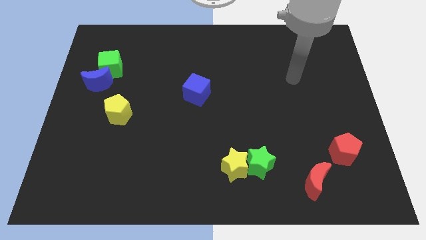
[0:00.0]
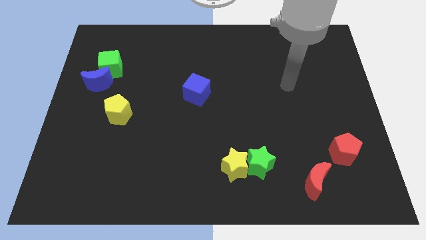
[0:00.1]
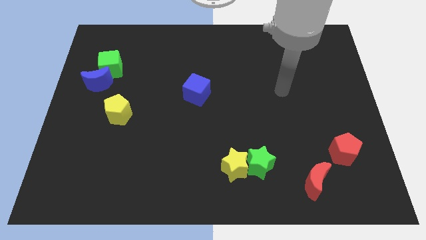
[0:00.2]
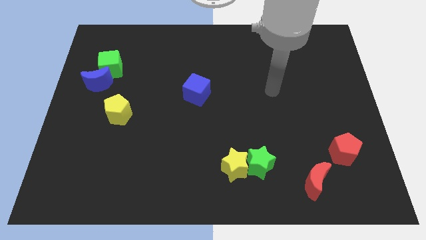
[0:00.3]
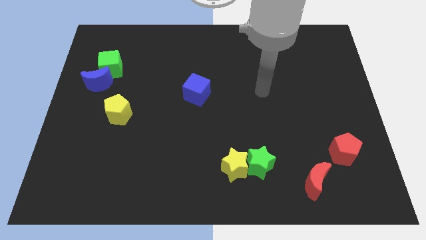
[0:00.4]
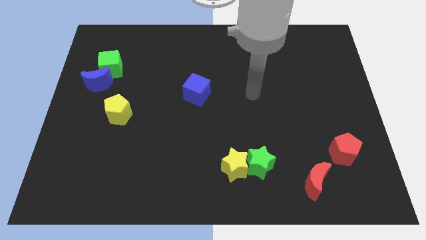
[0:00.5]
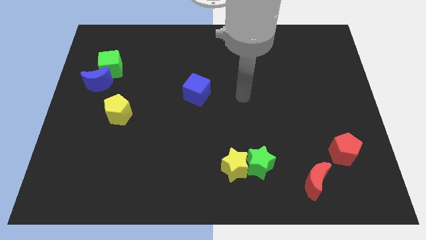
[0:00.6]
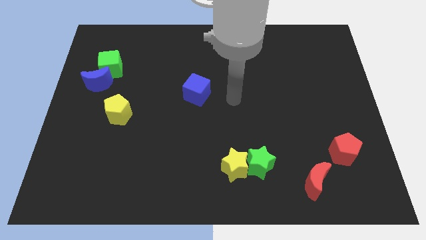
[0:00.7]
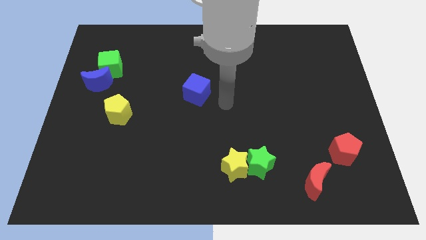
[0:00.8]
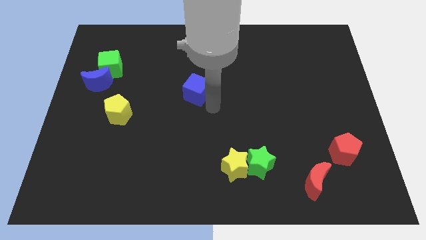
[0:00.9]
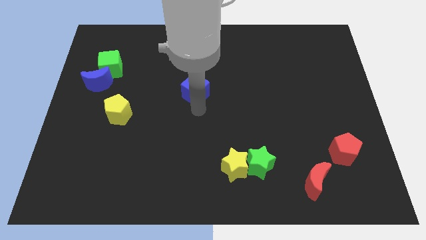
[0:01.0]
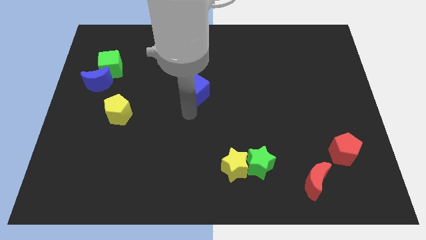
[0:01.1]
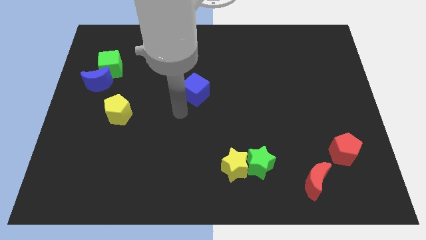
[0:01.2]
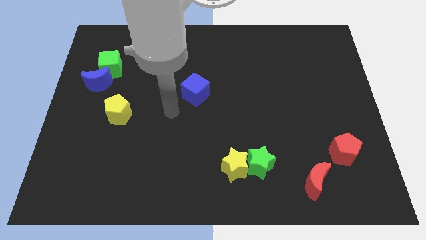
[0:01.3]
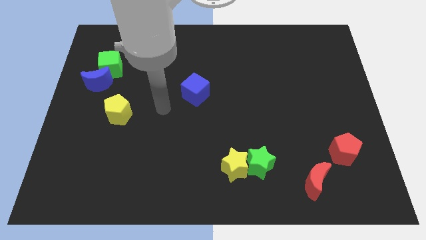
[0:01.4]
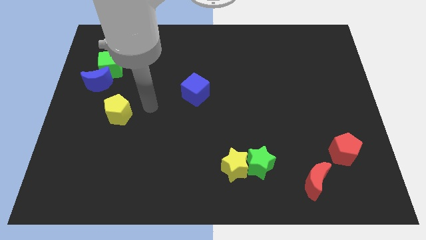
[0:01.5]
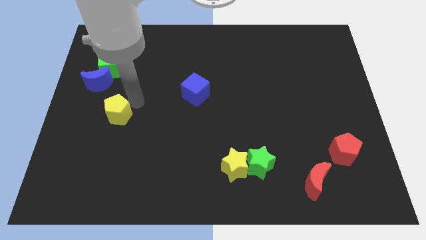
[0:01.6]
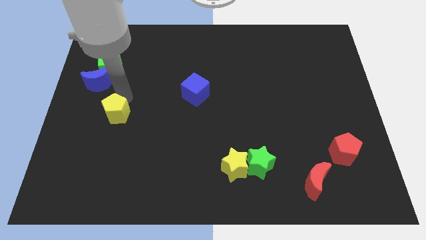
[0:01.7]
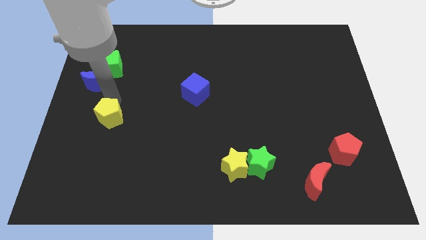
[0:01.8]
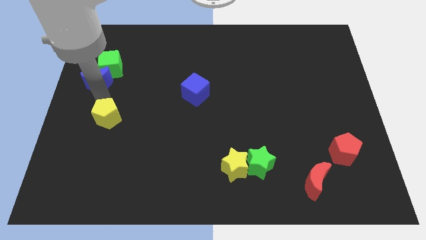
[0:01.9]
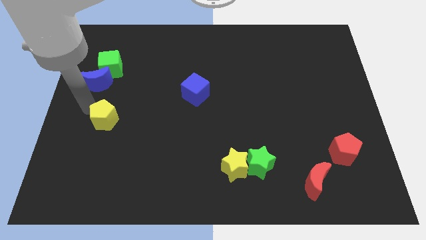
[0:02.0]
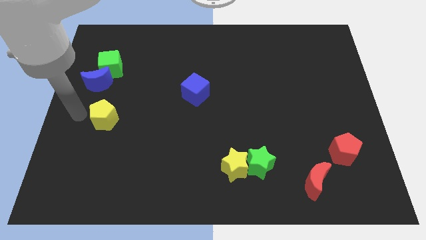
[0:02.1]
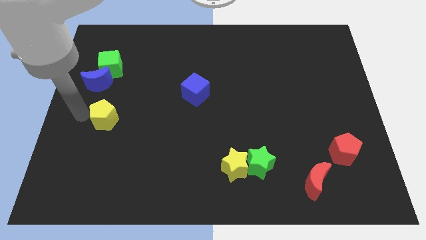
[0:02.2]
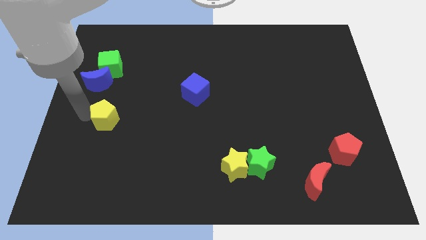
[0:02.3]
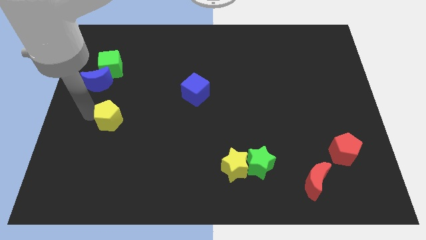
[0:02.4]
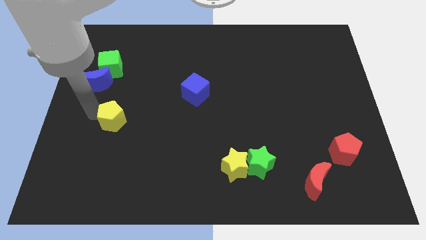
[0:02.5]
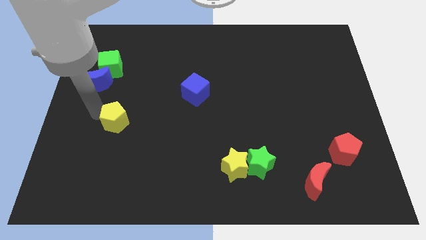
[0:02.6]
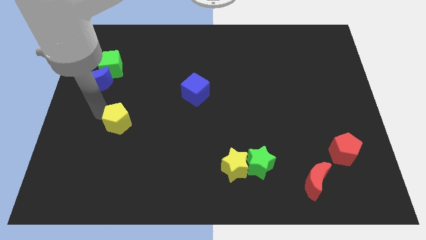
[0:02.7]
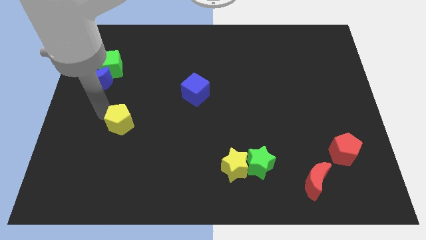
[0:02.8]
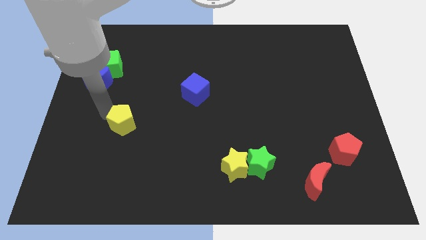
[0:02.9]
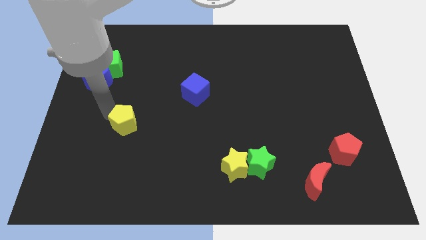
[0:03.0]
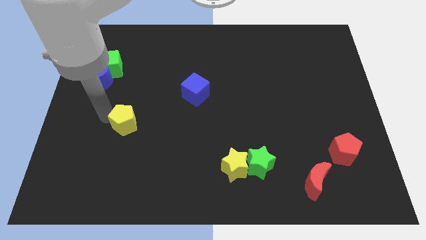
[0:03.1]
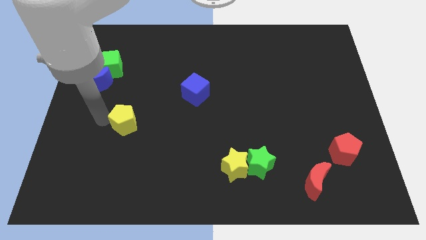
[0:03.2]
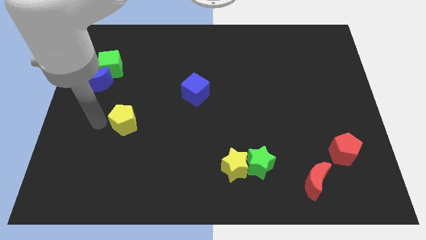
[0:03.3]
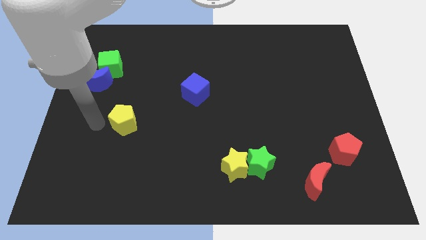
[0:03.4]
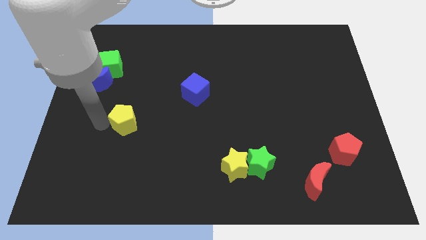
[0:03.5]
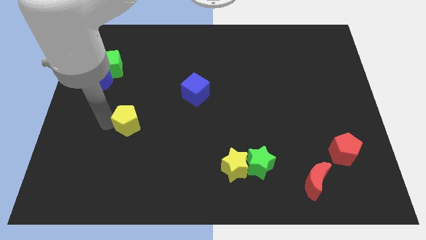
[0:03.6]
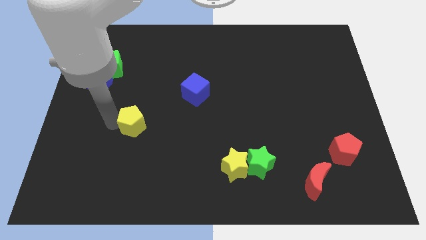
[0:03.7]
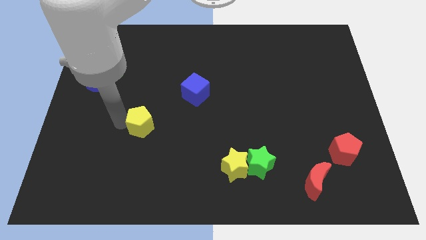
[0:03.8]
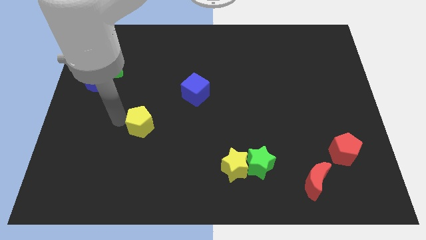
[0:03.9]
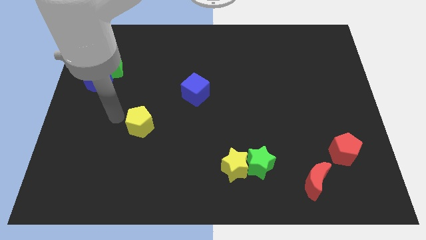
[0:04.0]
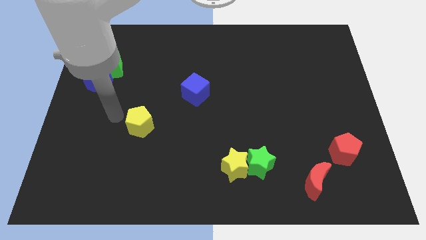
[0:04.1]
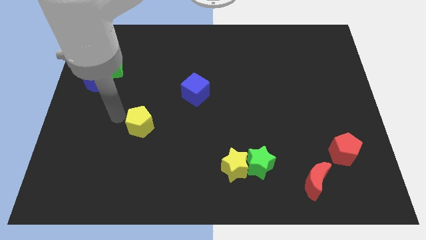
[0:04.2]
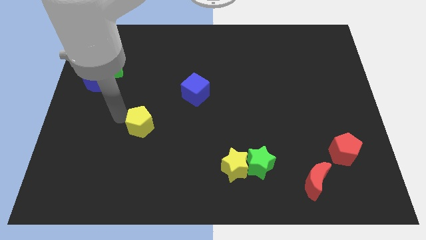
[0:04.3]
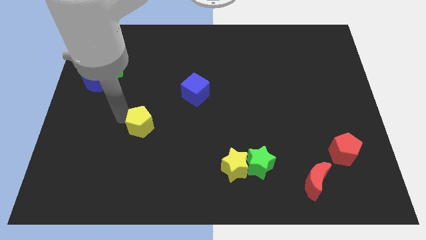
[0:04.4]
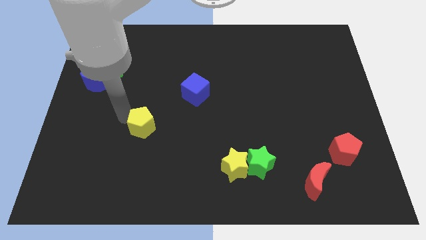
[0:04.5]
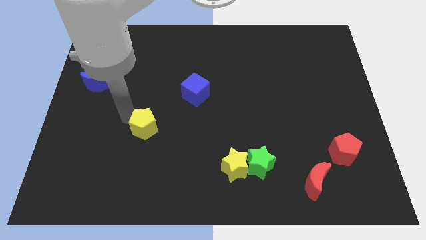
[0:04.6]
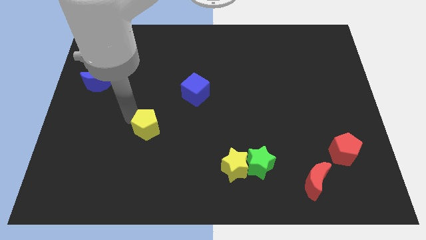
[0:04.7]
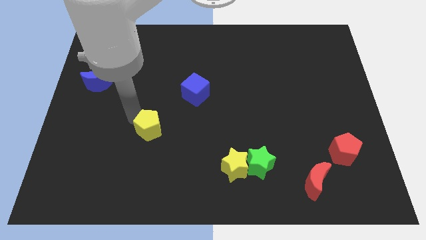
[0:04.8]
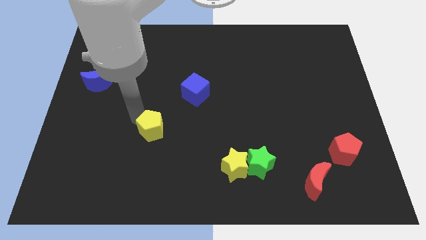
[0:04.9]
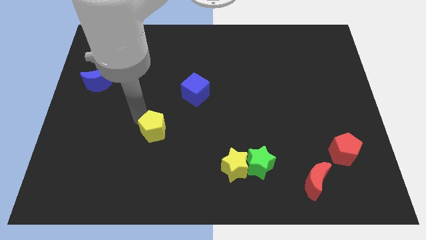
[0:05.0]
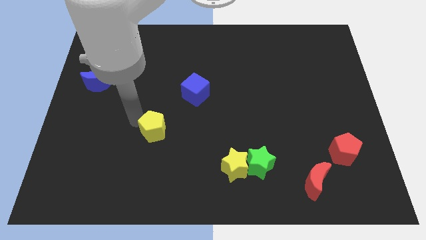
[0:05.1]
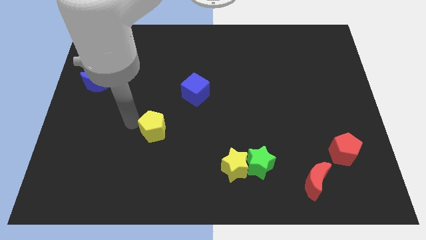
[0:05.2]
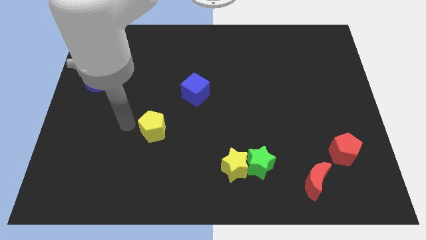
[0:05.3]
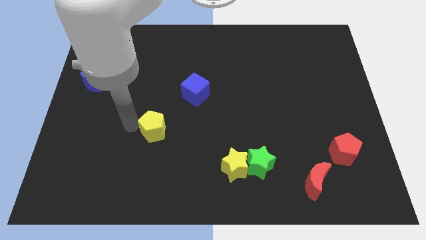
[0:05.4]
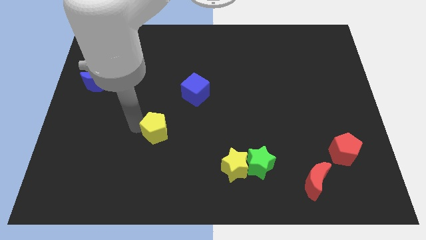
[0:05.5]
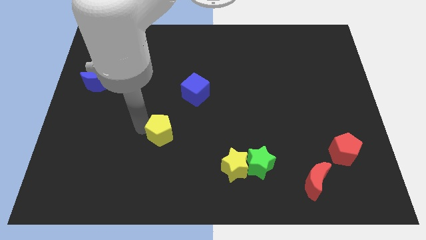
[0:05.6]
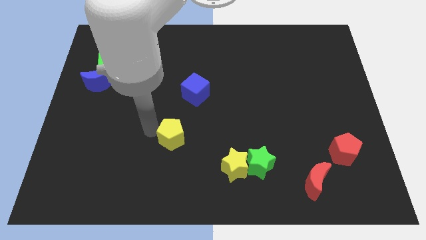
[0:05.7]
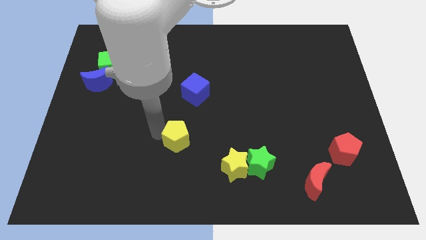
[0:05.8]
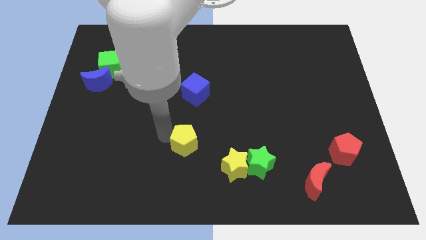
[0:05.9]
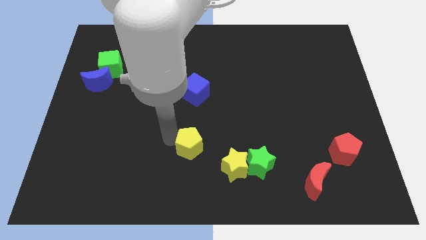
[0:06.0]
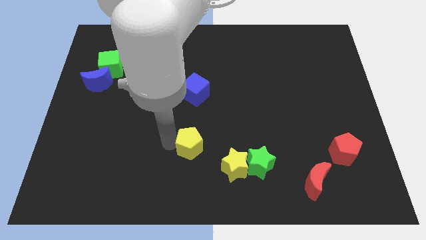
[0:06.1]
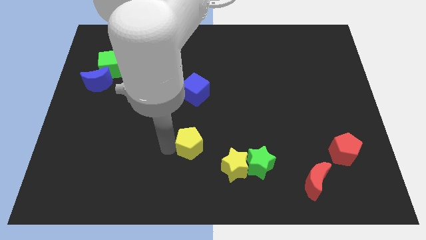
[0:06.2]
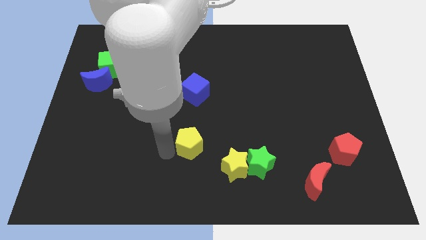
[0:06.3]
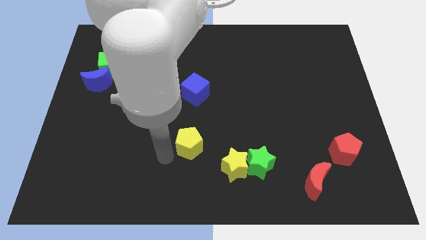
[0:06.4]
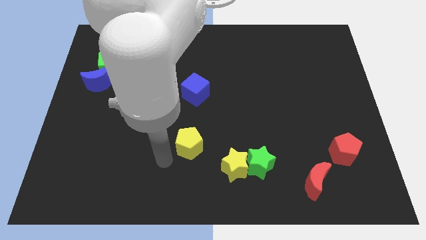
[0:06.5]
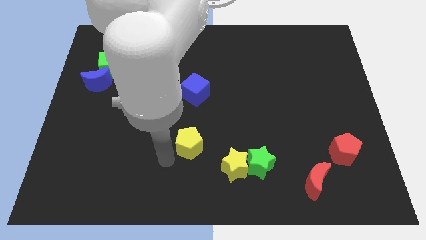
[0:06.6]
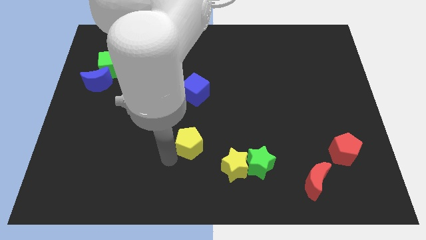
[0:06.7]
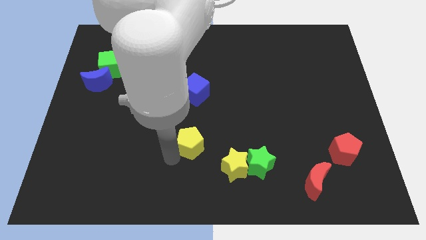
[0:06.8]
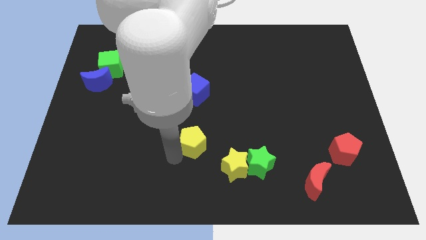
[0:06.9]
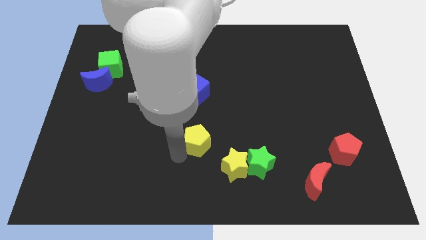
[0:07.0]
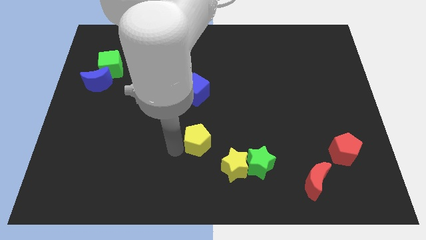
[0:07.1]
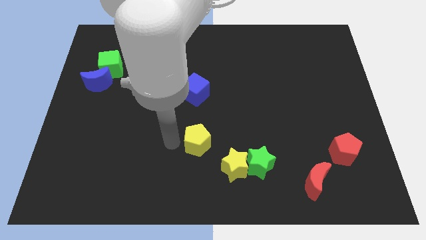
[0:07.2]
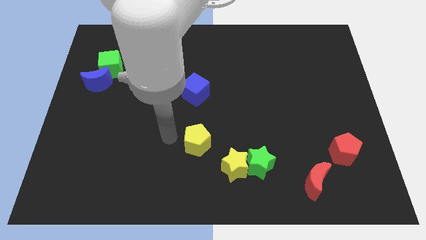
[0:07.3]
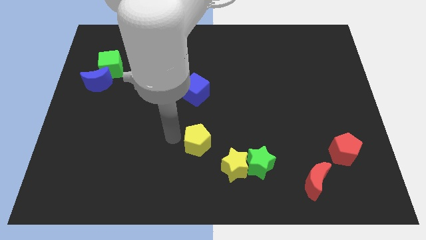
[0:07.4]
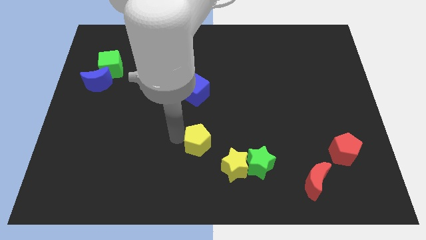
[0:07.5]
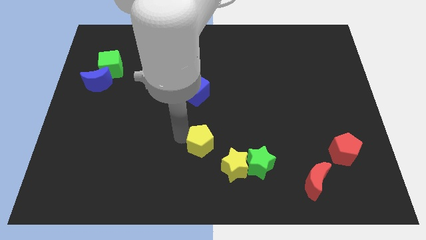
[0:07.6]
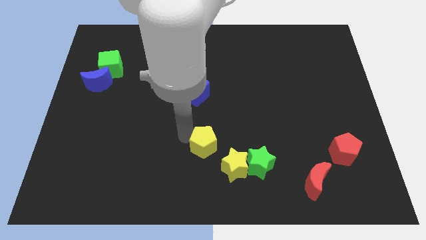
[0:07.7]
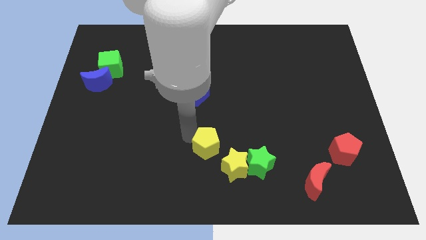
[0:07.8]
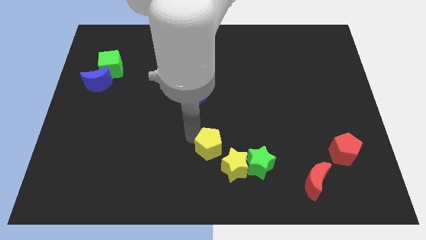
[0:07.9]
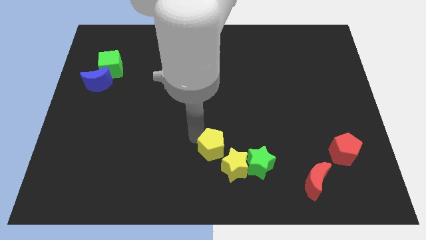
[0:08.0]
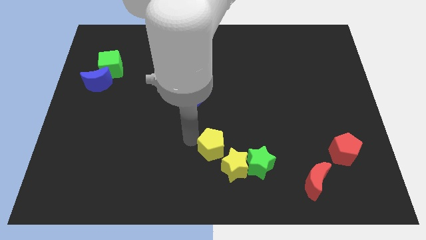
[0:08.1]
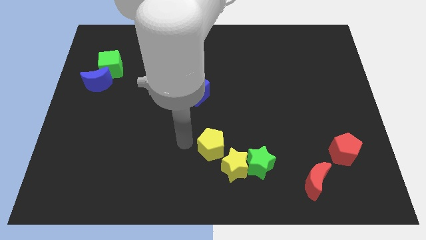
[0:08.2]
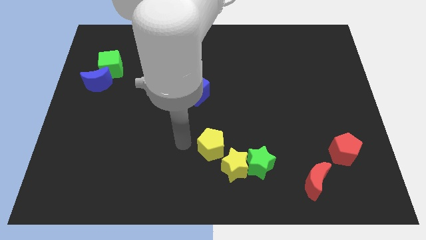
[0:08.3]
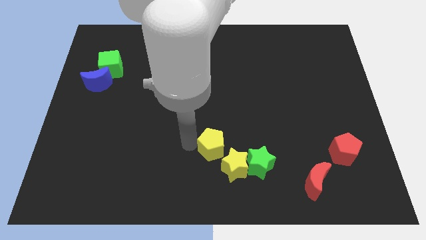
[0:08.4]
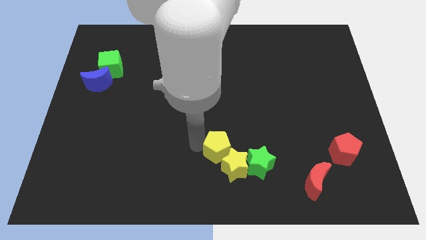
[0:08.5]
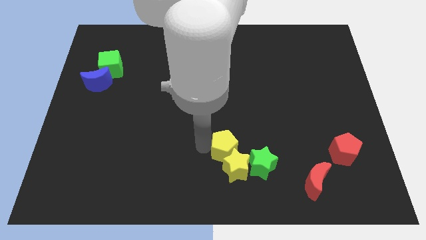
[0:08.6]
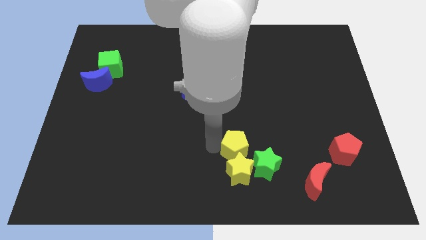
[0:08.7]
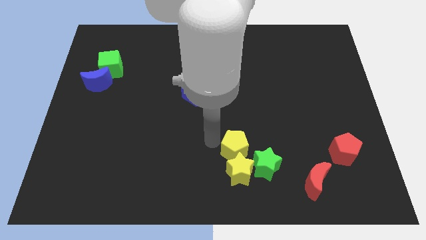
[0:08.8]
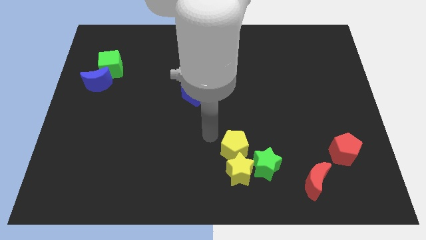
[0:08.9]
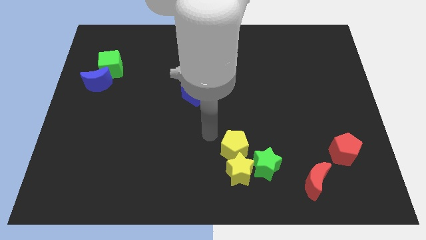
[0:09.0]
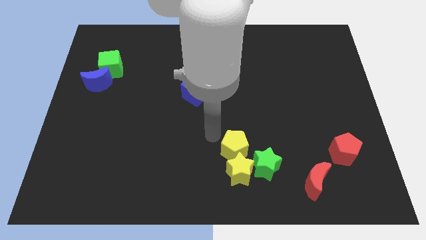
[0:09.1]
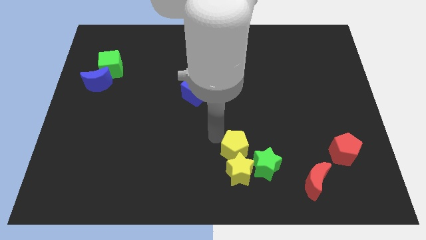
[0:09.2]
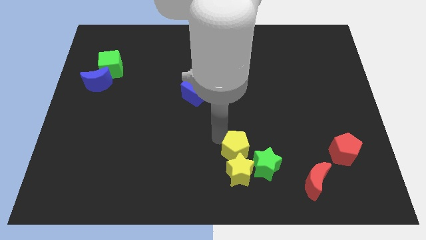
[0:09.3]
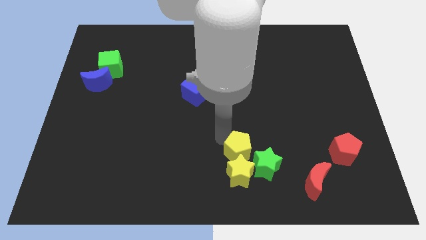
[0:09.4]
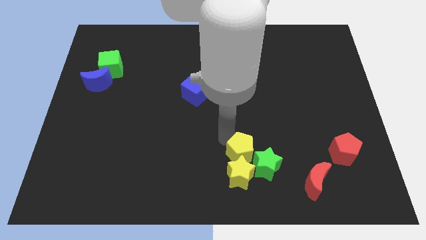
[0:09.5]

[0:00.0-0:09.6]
slide the yellow pentagon close to the green star
